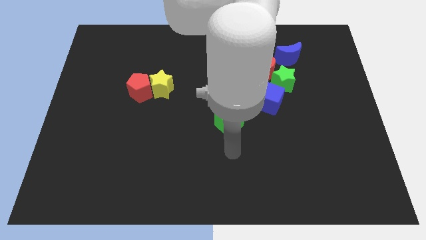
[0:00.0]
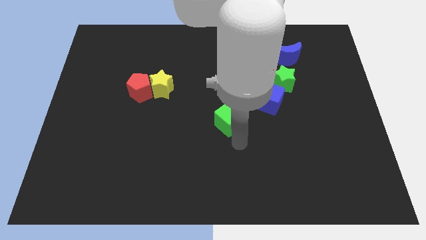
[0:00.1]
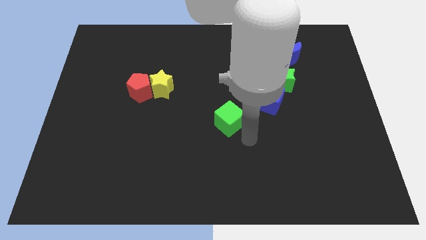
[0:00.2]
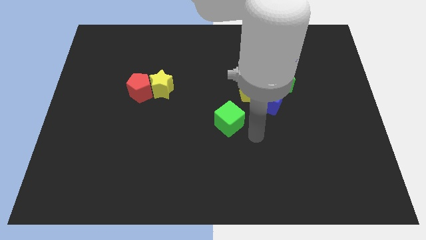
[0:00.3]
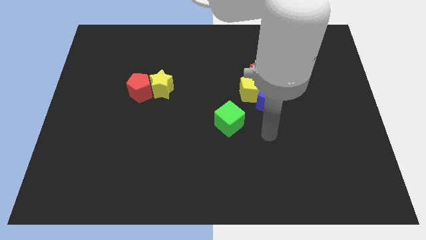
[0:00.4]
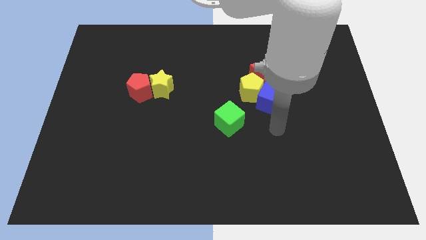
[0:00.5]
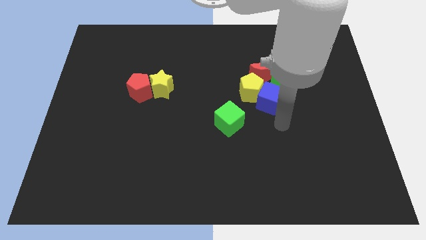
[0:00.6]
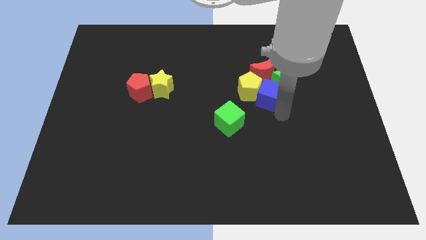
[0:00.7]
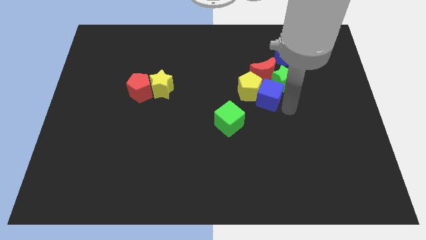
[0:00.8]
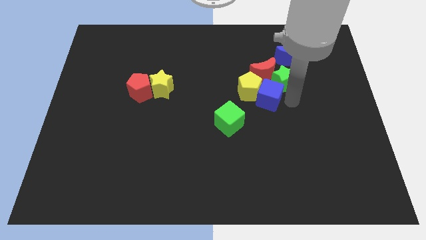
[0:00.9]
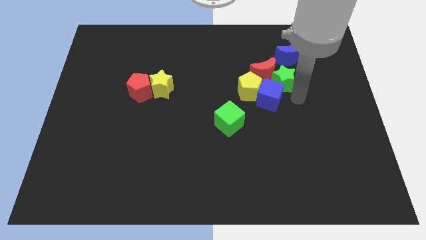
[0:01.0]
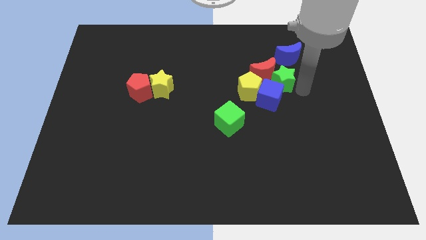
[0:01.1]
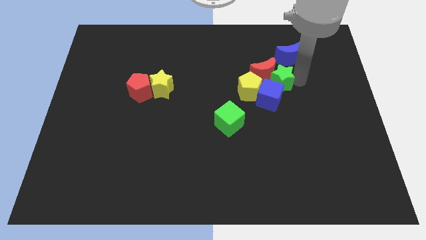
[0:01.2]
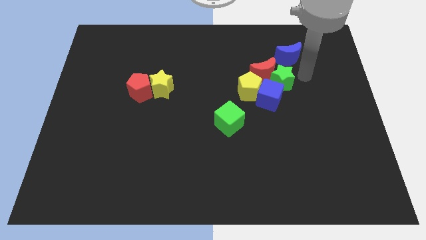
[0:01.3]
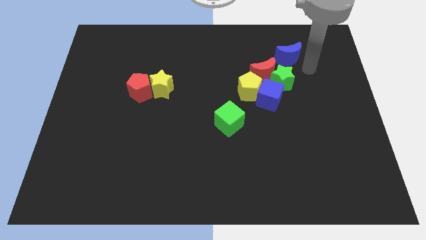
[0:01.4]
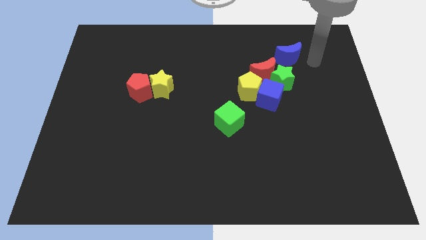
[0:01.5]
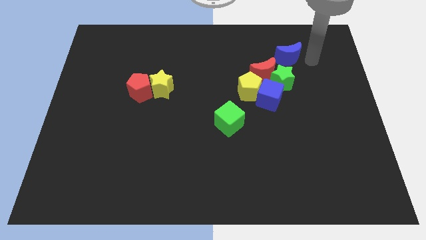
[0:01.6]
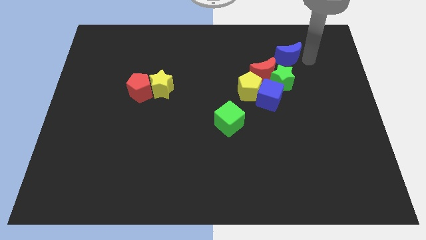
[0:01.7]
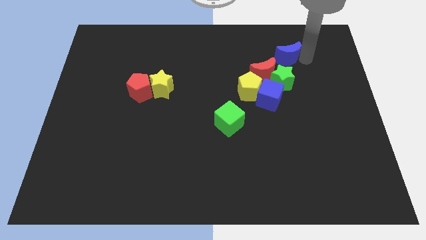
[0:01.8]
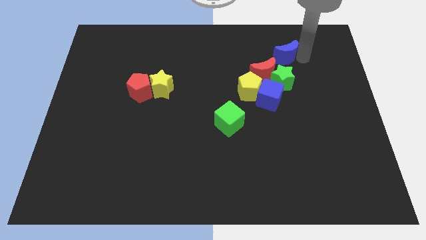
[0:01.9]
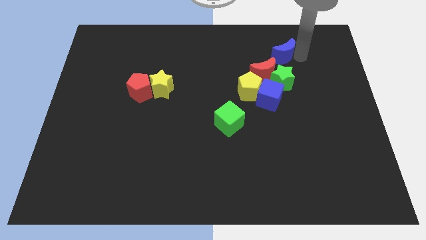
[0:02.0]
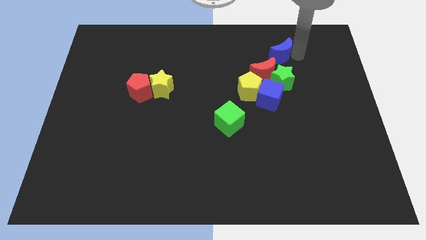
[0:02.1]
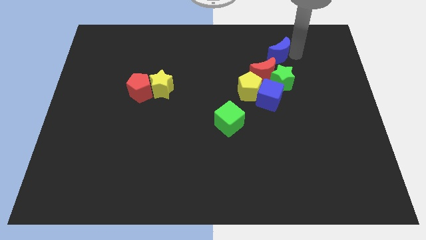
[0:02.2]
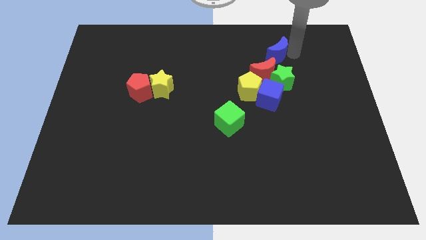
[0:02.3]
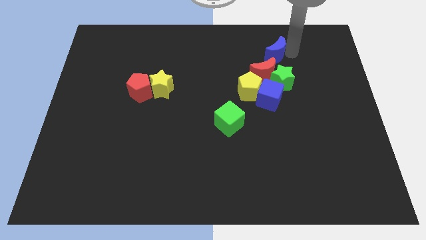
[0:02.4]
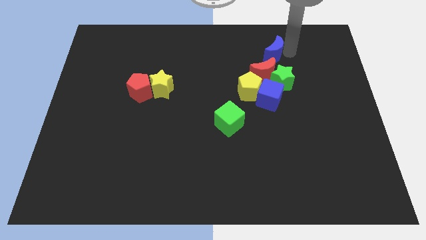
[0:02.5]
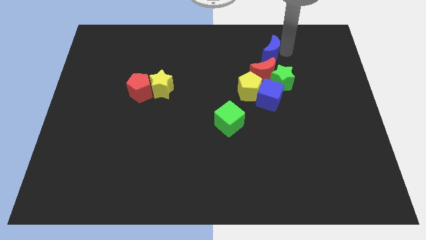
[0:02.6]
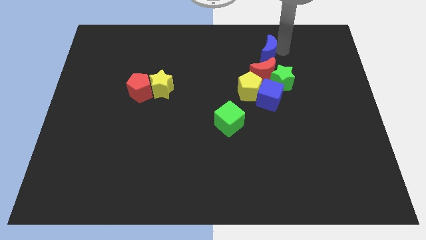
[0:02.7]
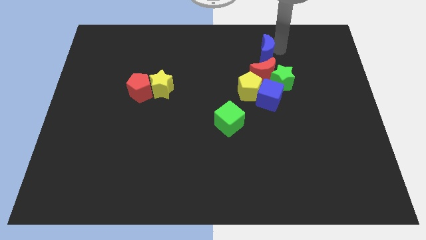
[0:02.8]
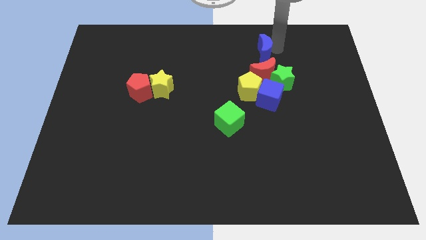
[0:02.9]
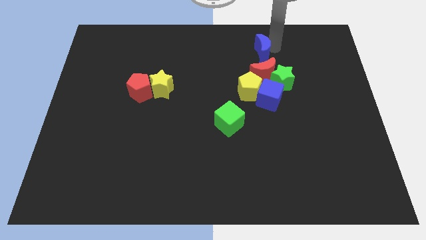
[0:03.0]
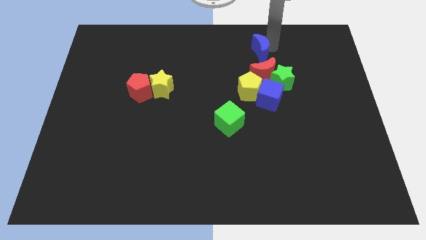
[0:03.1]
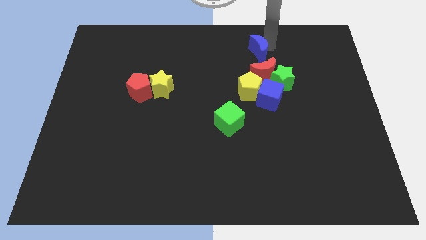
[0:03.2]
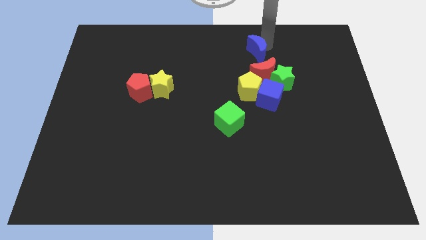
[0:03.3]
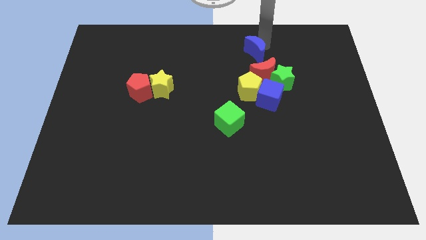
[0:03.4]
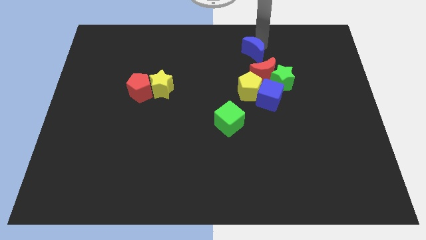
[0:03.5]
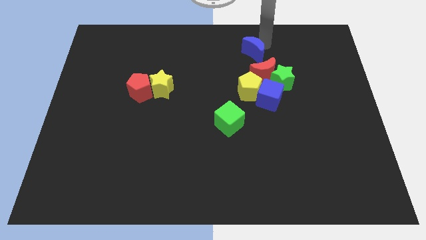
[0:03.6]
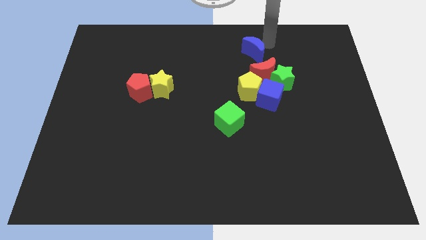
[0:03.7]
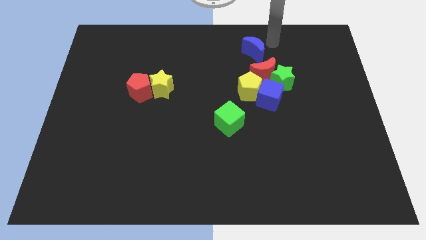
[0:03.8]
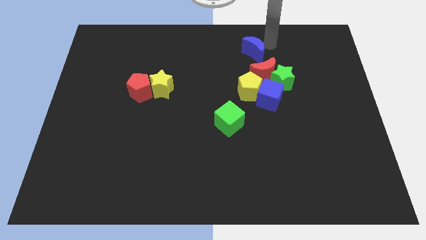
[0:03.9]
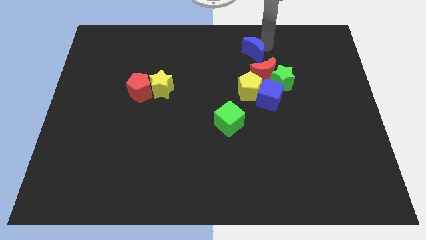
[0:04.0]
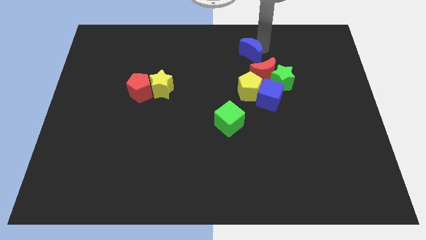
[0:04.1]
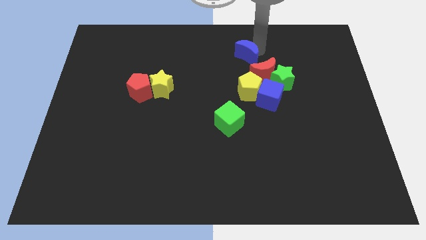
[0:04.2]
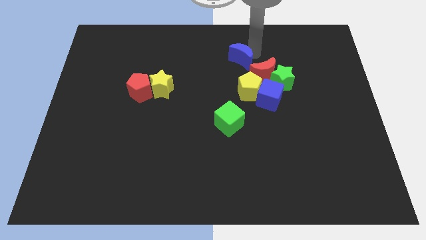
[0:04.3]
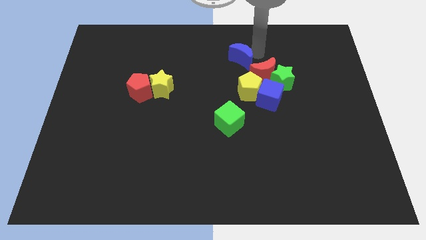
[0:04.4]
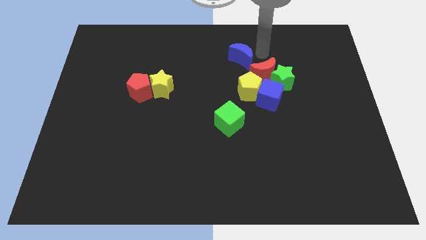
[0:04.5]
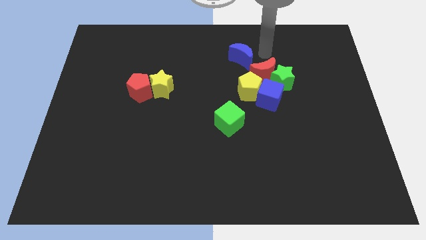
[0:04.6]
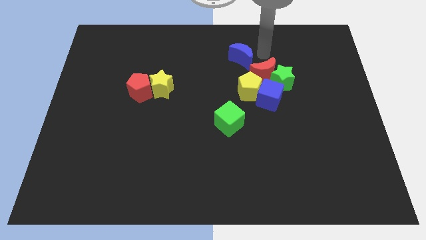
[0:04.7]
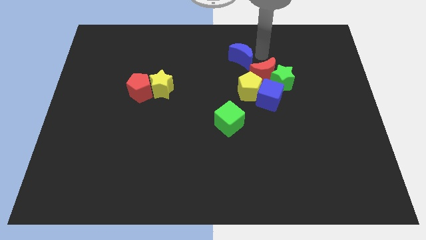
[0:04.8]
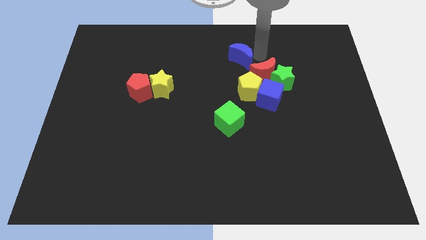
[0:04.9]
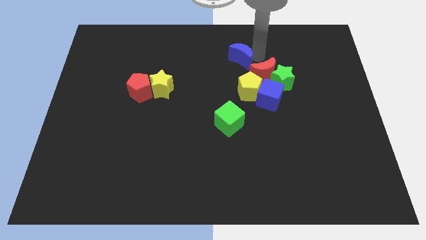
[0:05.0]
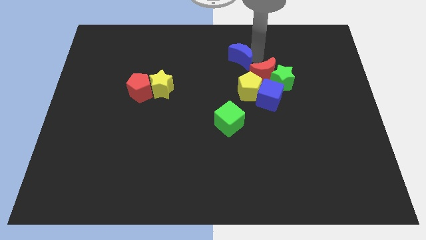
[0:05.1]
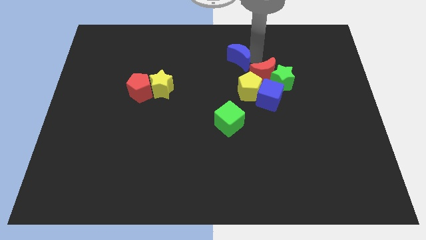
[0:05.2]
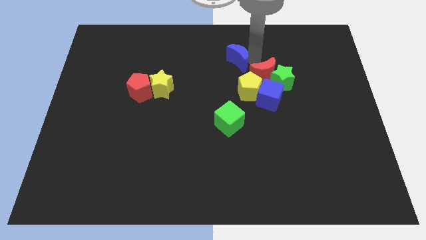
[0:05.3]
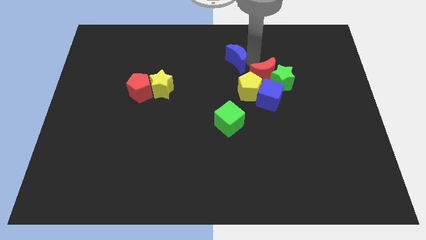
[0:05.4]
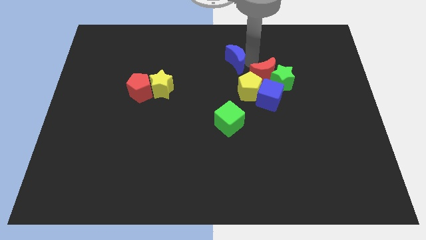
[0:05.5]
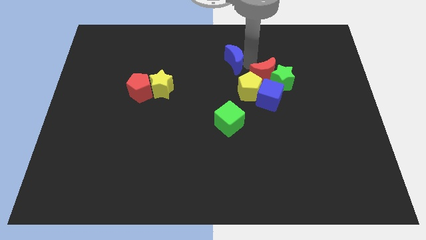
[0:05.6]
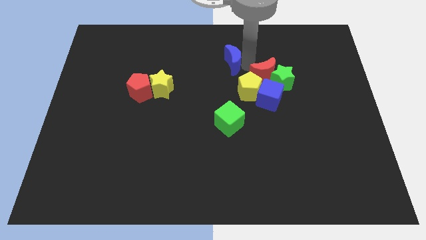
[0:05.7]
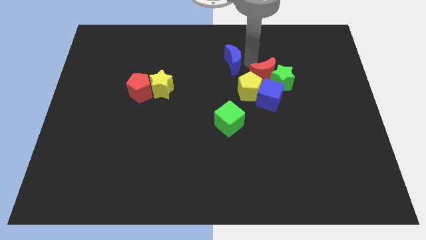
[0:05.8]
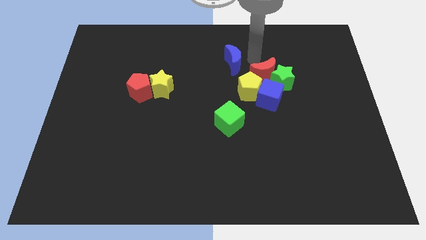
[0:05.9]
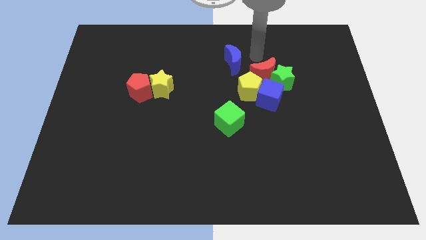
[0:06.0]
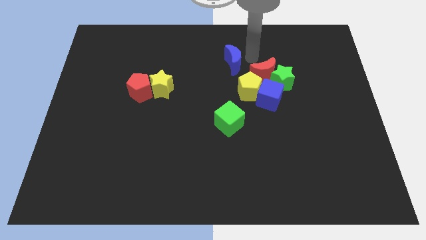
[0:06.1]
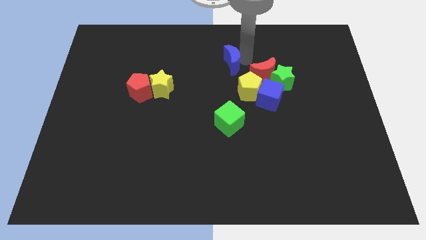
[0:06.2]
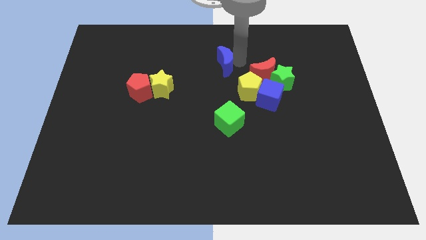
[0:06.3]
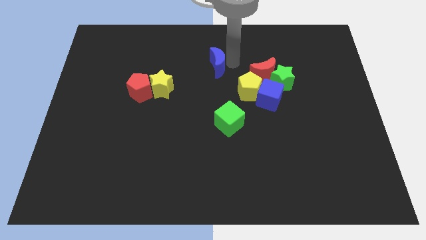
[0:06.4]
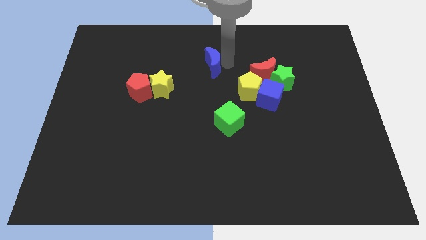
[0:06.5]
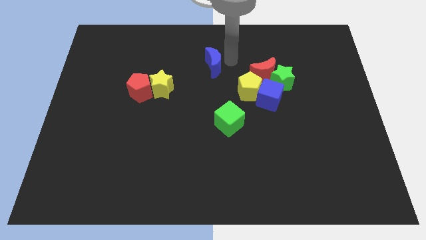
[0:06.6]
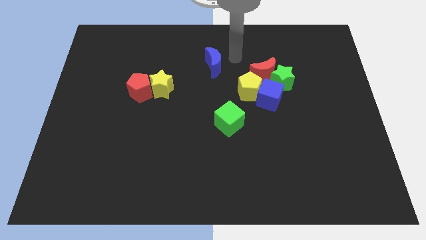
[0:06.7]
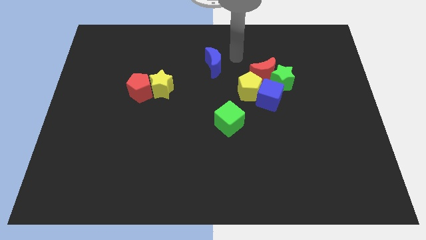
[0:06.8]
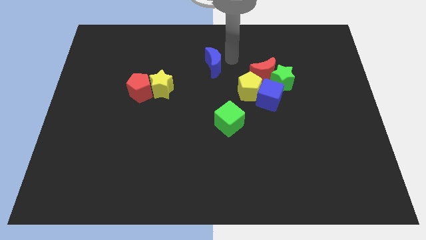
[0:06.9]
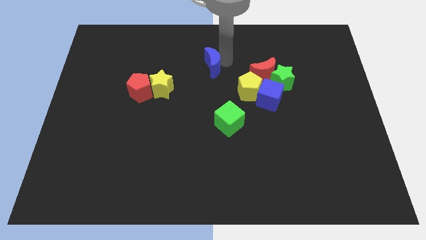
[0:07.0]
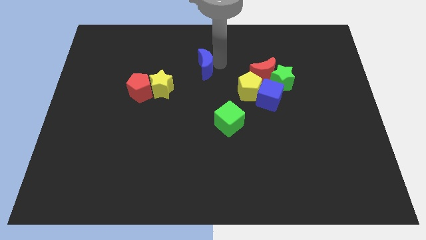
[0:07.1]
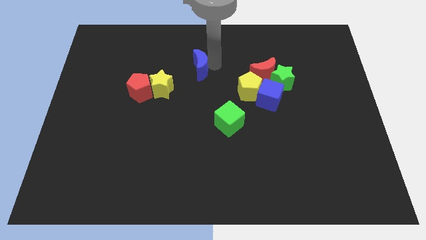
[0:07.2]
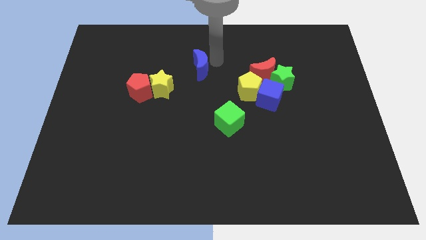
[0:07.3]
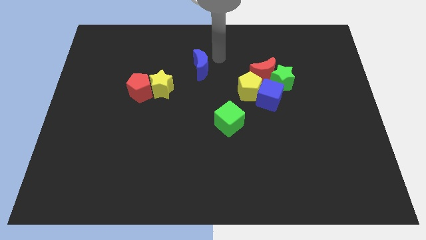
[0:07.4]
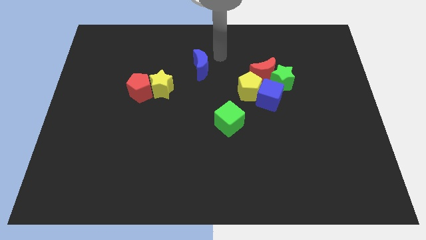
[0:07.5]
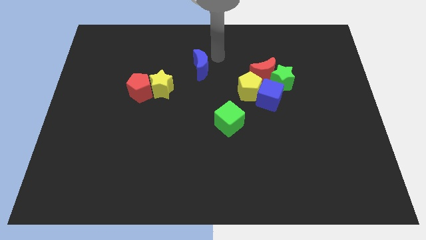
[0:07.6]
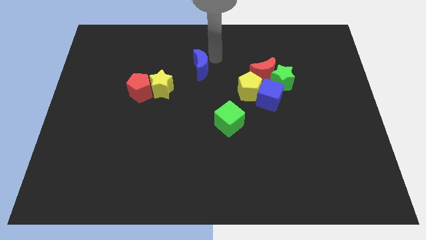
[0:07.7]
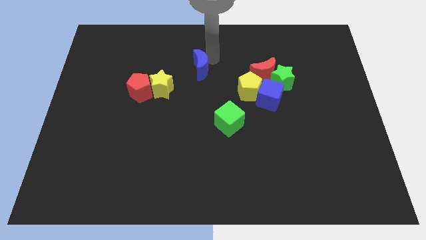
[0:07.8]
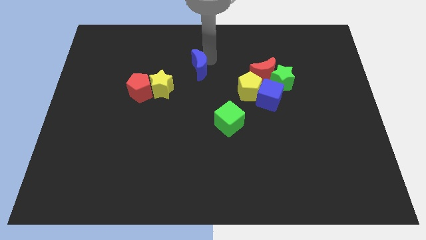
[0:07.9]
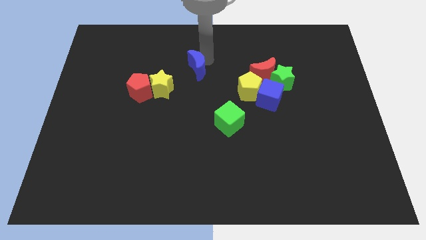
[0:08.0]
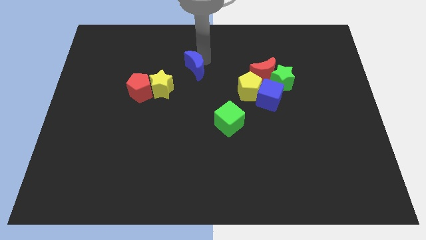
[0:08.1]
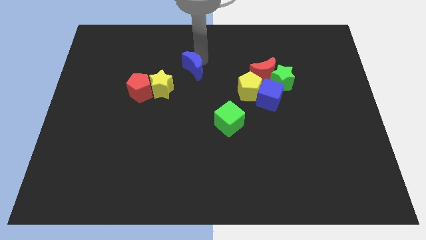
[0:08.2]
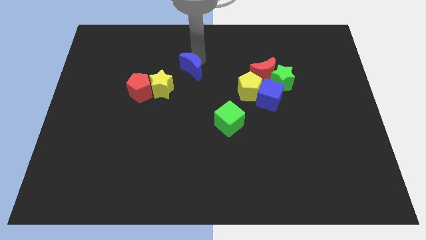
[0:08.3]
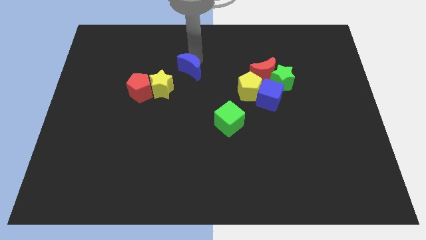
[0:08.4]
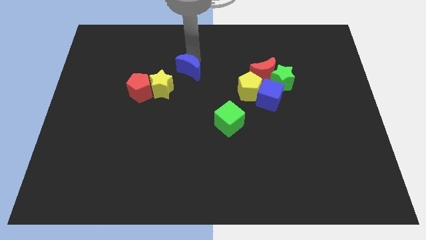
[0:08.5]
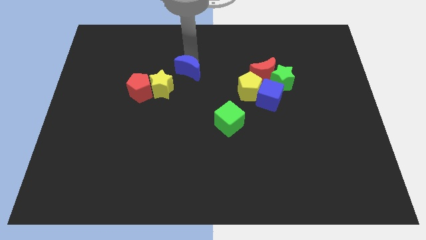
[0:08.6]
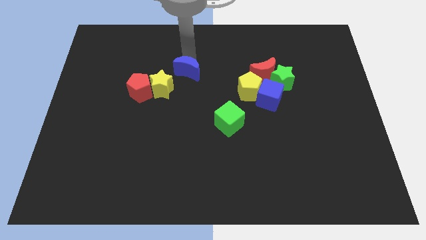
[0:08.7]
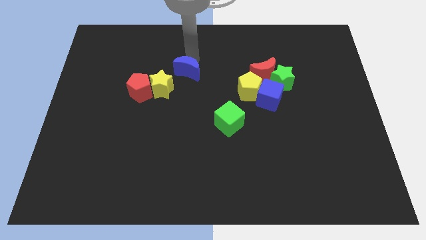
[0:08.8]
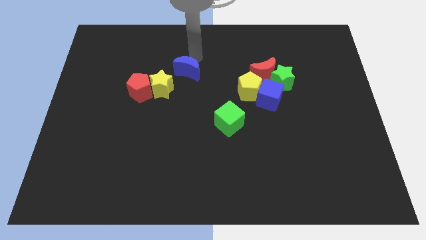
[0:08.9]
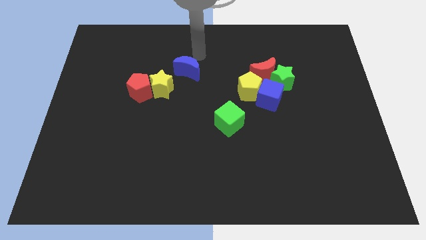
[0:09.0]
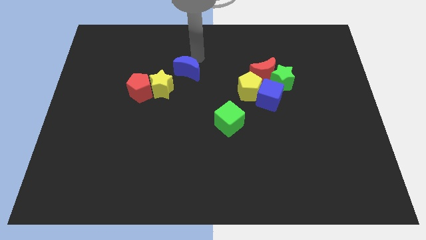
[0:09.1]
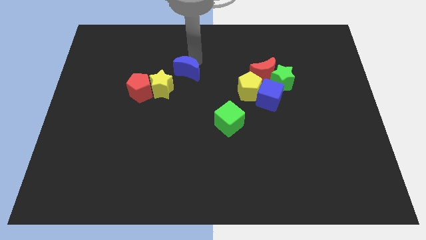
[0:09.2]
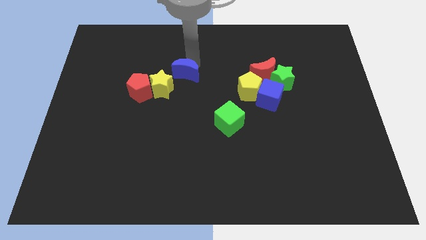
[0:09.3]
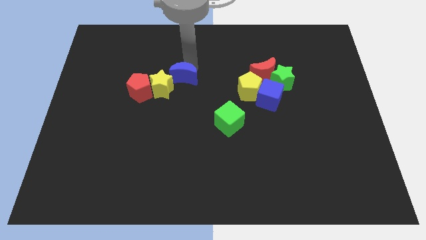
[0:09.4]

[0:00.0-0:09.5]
push the blue moon close to the yellow star
